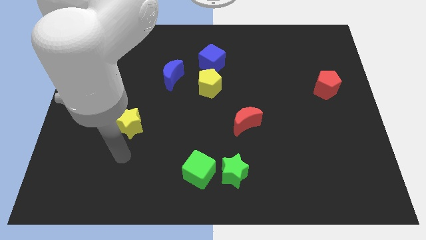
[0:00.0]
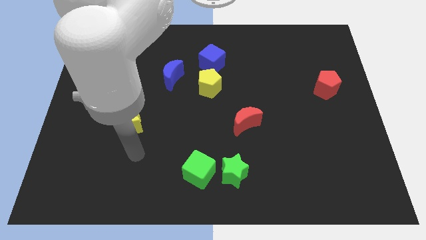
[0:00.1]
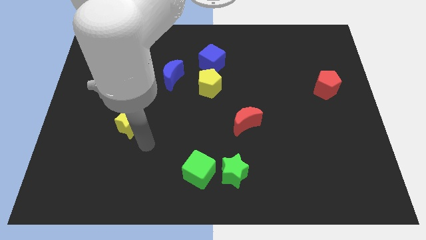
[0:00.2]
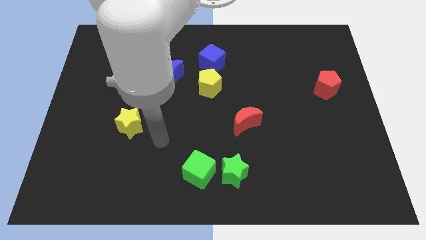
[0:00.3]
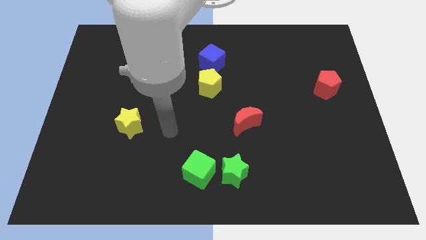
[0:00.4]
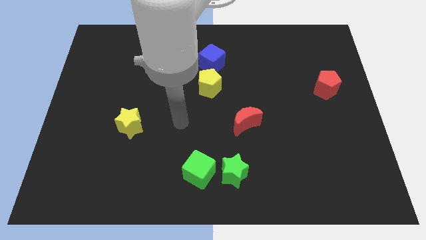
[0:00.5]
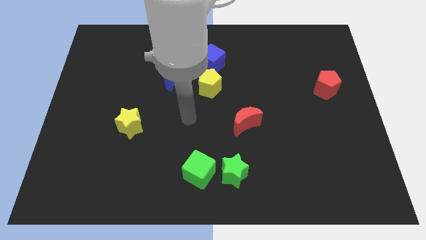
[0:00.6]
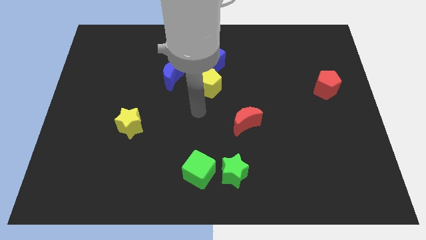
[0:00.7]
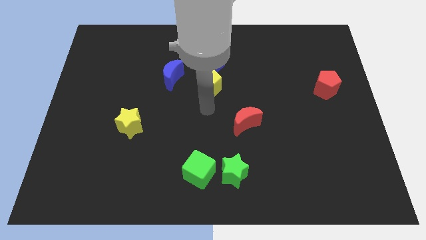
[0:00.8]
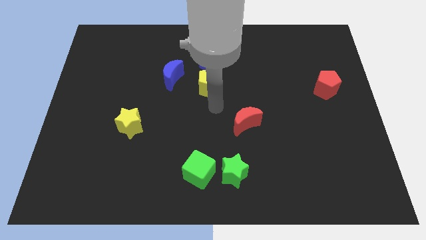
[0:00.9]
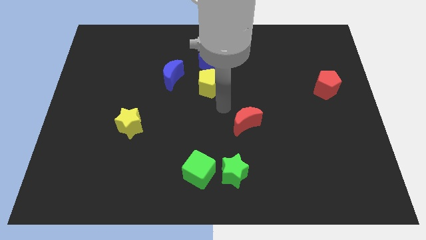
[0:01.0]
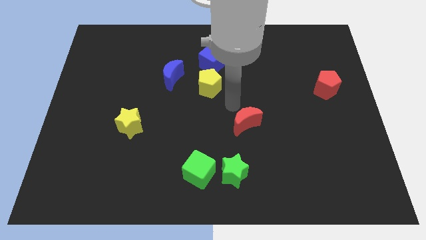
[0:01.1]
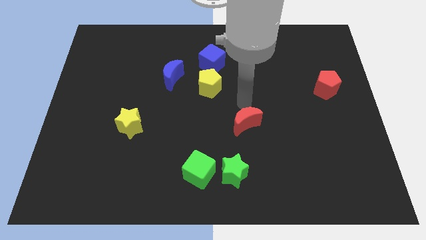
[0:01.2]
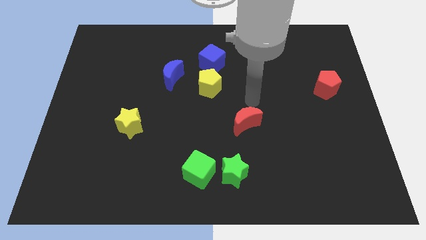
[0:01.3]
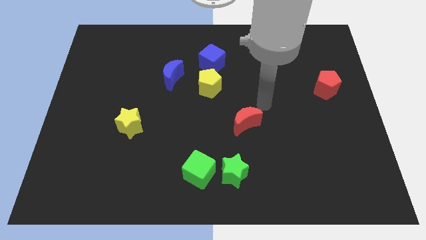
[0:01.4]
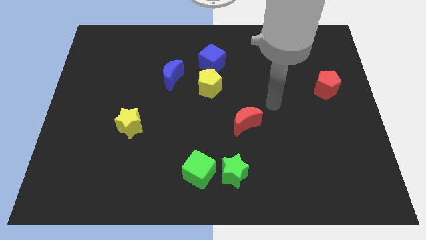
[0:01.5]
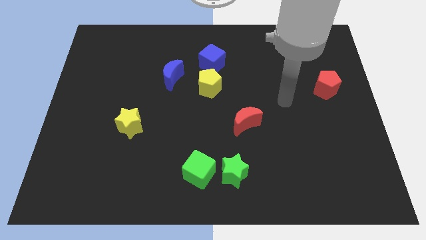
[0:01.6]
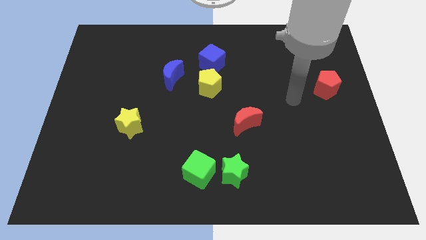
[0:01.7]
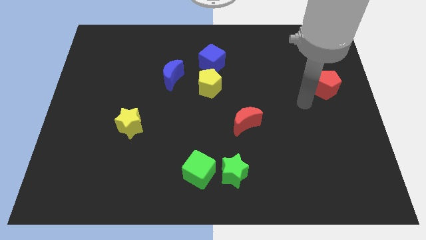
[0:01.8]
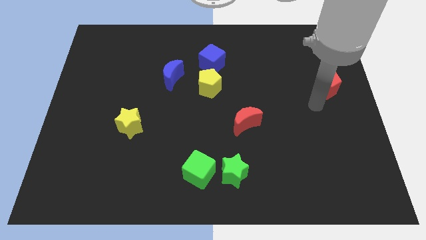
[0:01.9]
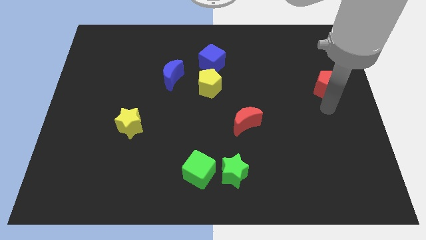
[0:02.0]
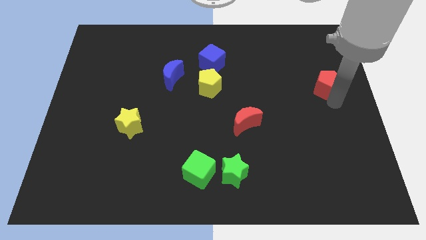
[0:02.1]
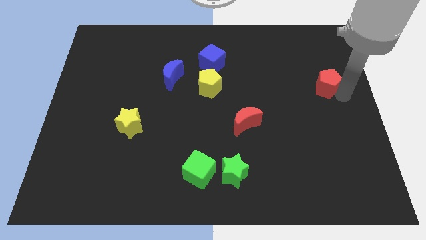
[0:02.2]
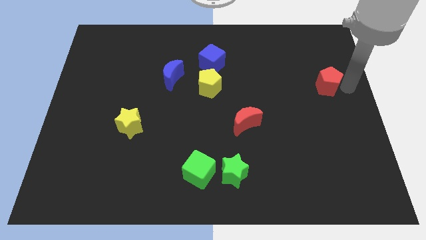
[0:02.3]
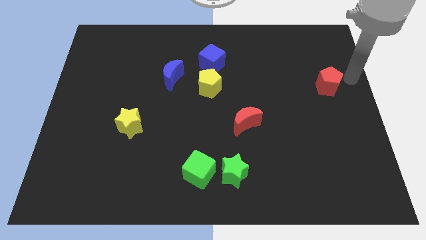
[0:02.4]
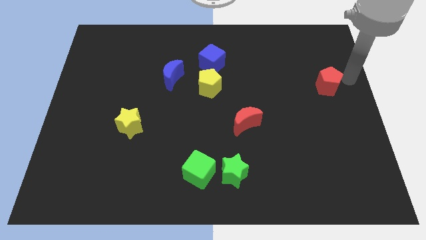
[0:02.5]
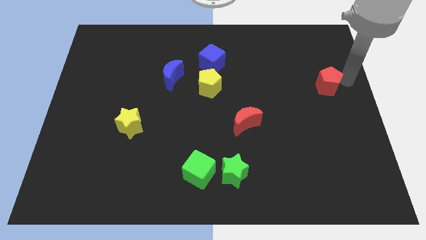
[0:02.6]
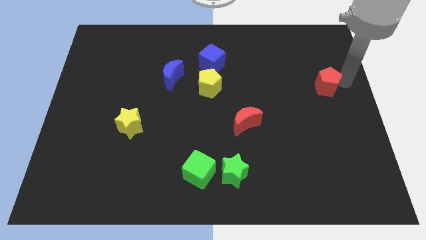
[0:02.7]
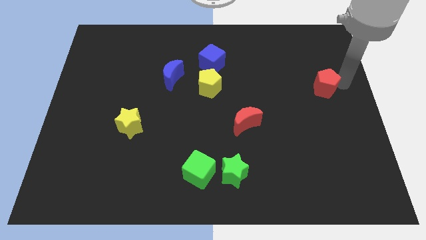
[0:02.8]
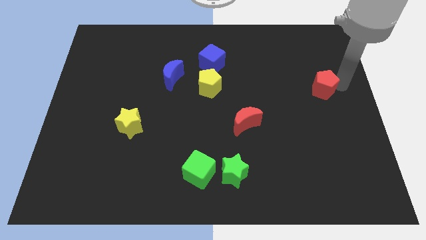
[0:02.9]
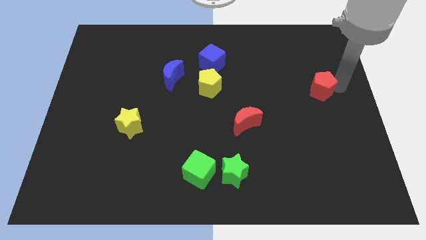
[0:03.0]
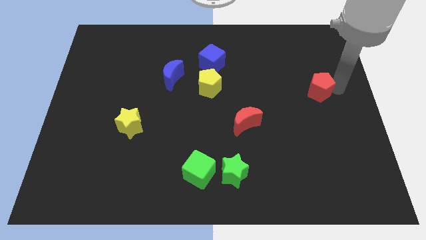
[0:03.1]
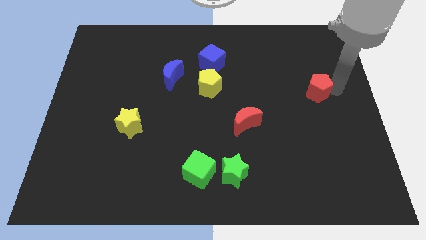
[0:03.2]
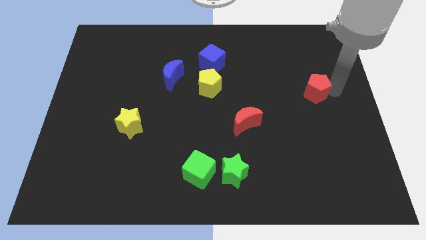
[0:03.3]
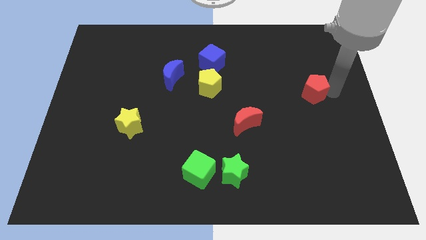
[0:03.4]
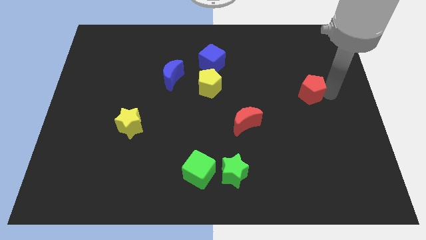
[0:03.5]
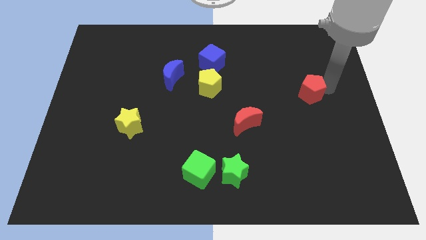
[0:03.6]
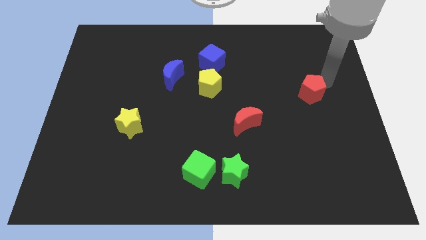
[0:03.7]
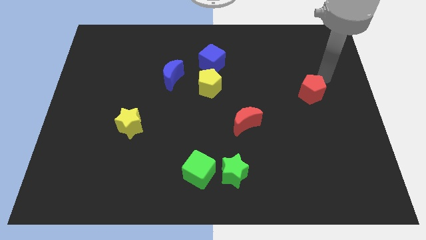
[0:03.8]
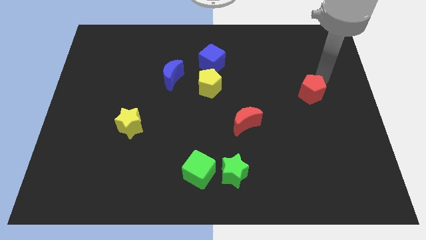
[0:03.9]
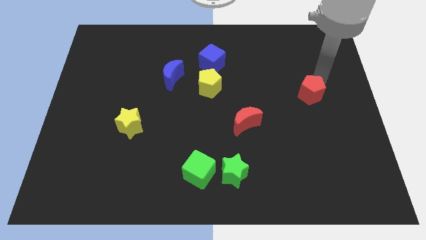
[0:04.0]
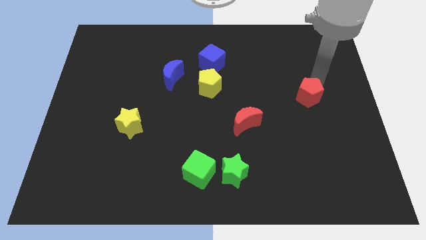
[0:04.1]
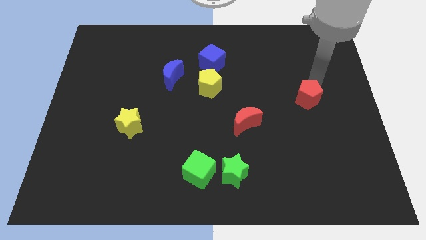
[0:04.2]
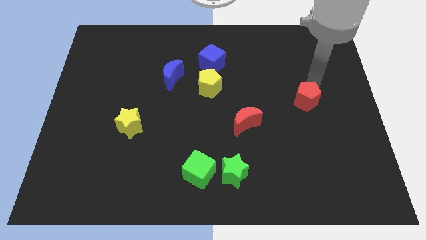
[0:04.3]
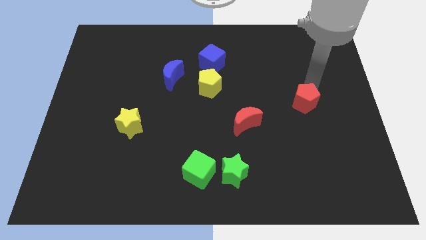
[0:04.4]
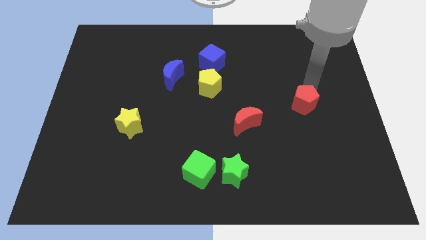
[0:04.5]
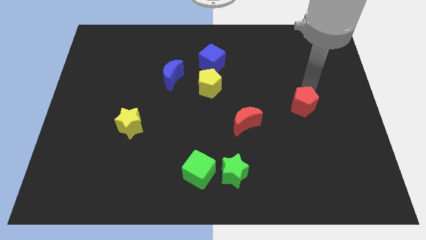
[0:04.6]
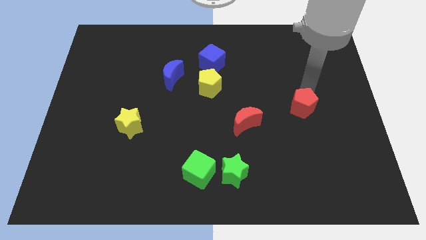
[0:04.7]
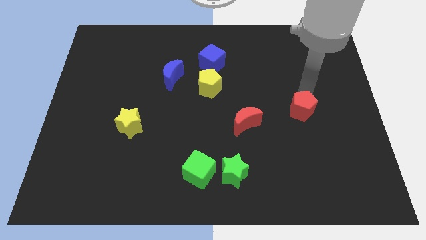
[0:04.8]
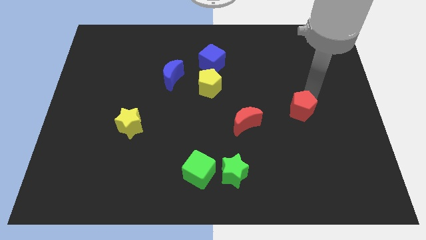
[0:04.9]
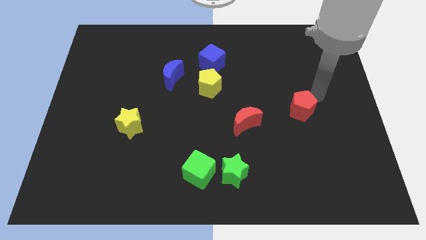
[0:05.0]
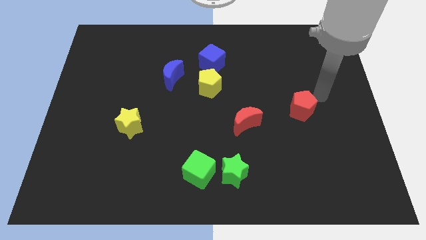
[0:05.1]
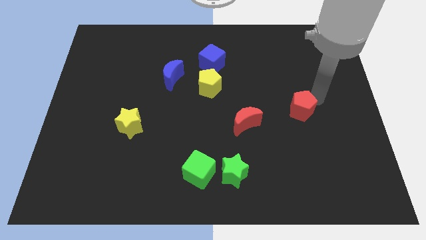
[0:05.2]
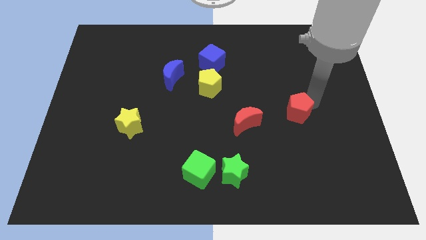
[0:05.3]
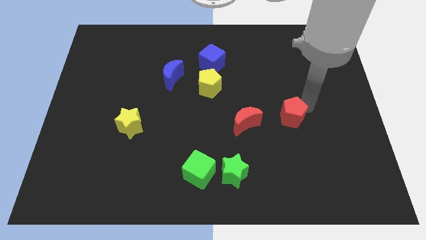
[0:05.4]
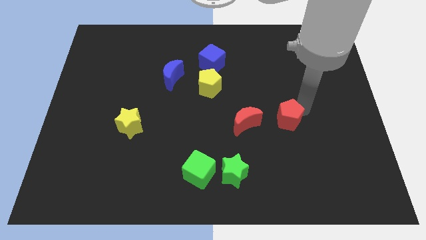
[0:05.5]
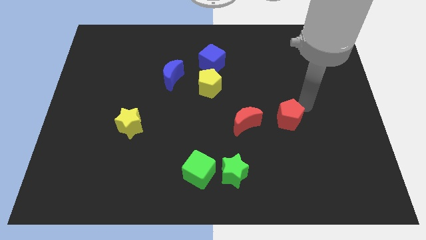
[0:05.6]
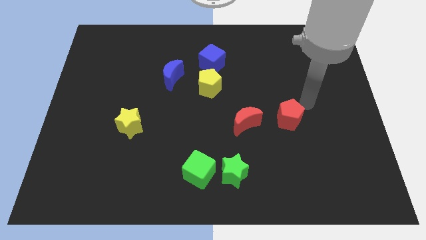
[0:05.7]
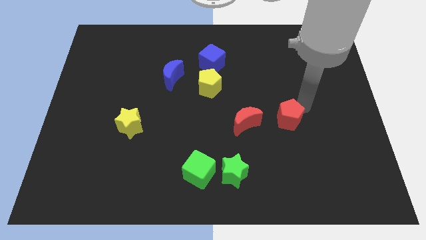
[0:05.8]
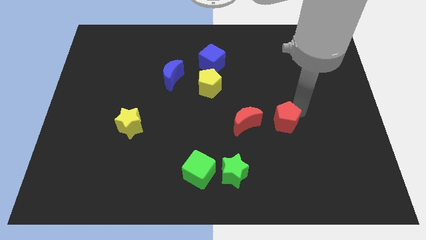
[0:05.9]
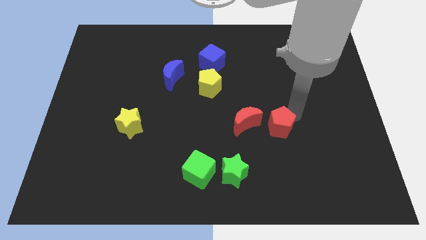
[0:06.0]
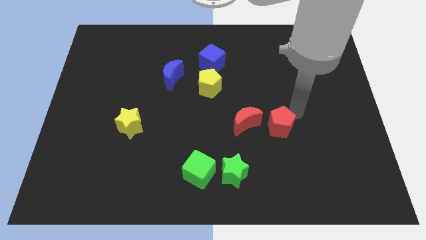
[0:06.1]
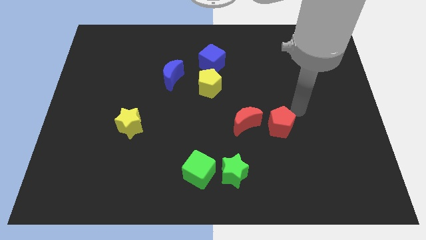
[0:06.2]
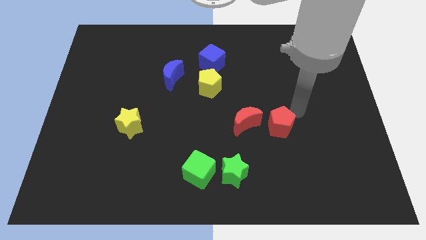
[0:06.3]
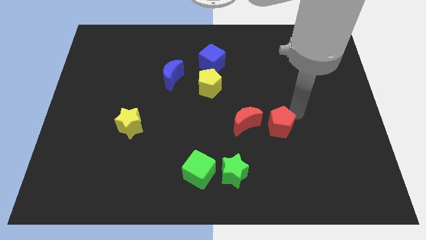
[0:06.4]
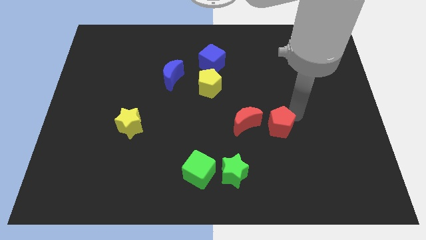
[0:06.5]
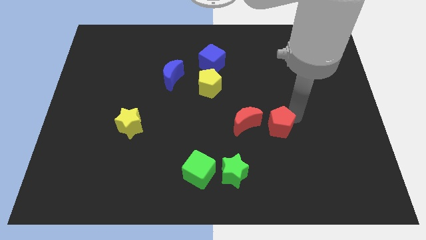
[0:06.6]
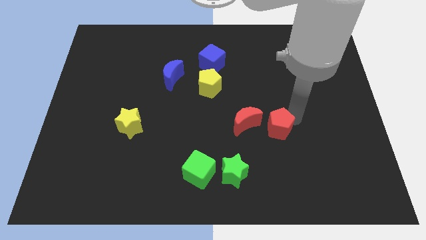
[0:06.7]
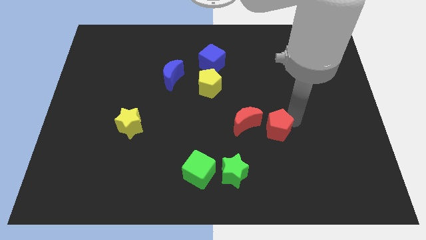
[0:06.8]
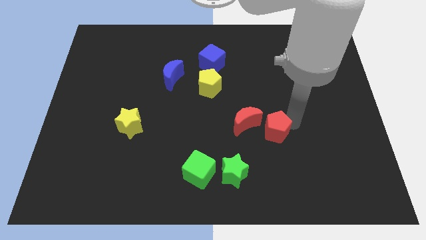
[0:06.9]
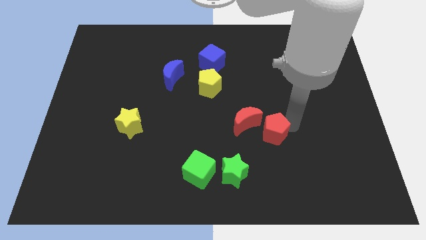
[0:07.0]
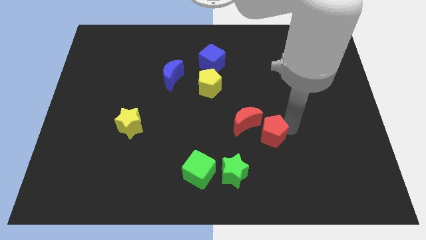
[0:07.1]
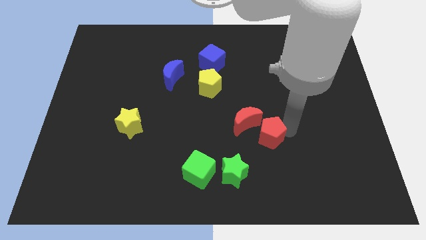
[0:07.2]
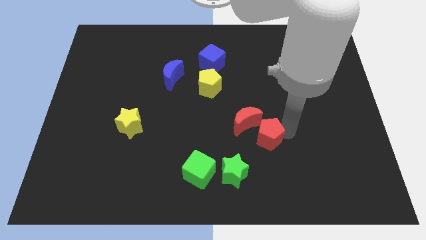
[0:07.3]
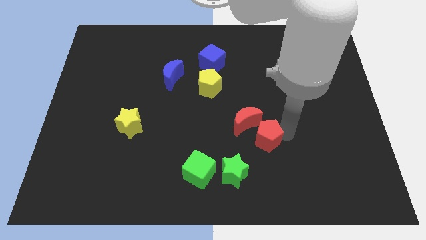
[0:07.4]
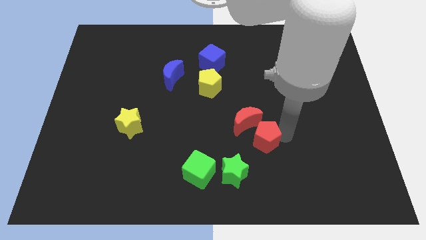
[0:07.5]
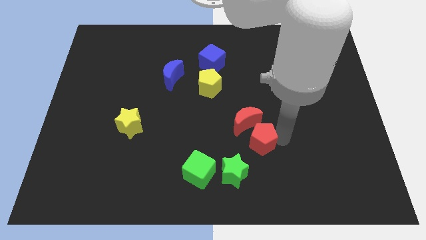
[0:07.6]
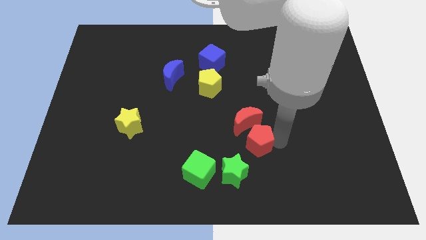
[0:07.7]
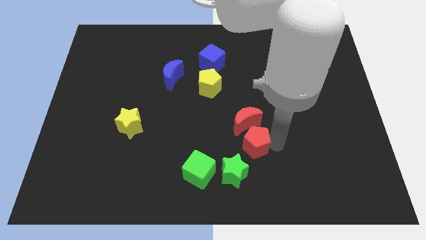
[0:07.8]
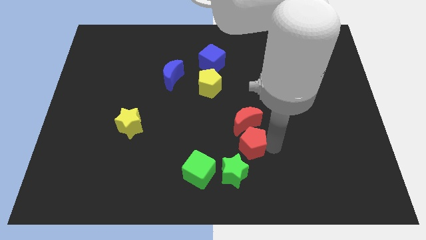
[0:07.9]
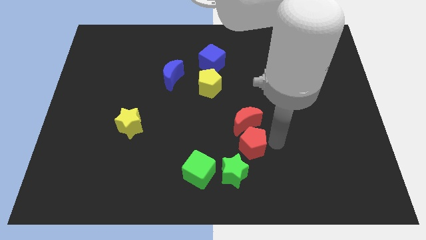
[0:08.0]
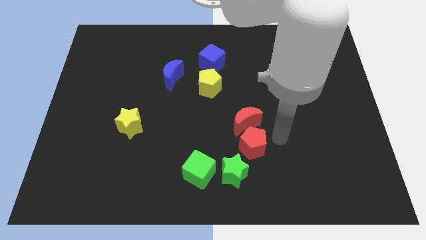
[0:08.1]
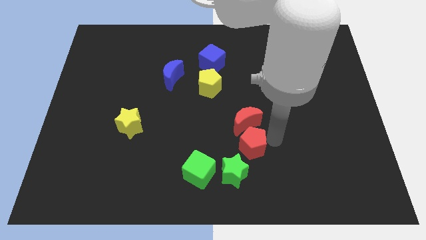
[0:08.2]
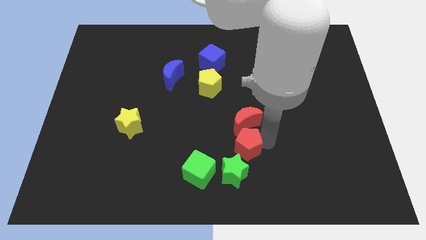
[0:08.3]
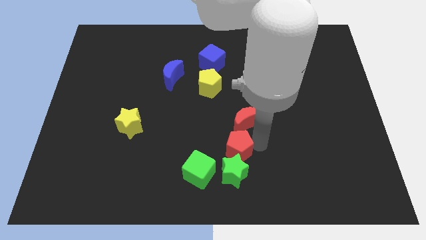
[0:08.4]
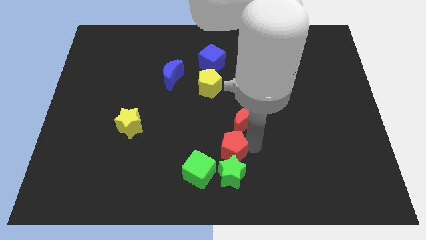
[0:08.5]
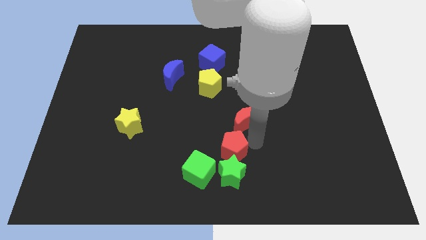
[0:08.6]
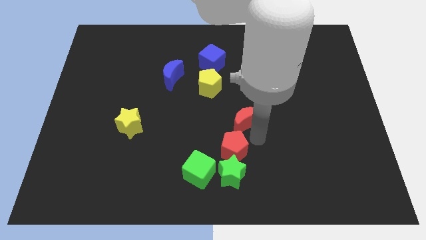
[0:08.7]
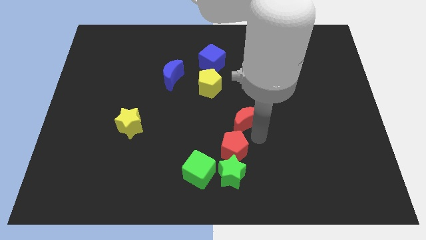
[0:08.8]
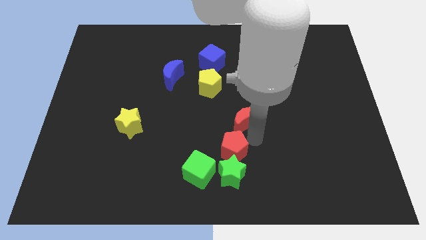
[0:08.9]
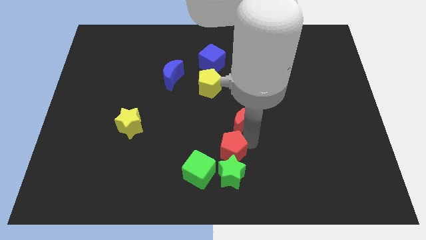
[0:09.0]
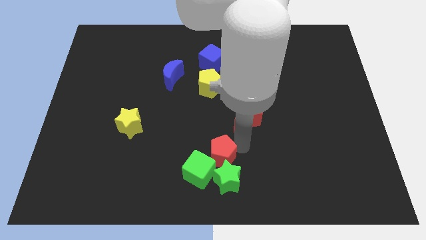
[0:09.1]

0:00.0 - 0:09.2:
put the red pentagon next to the green cube
